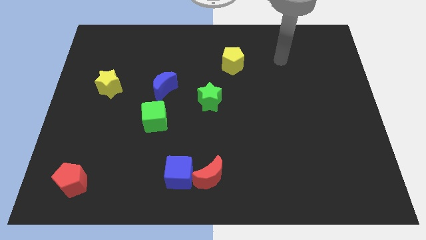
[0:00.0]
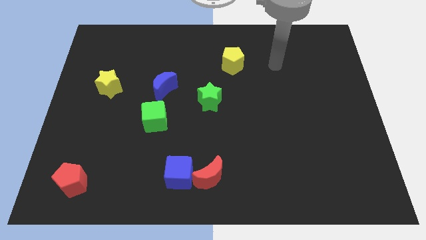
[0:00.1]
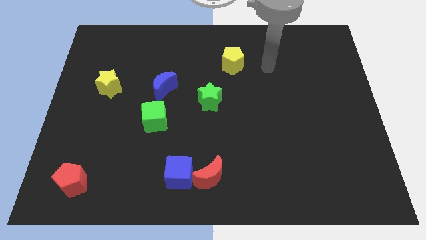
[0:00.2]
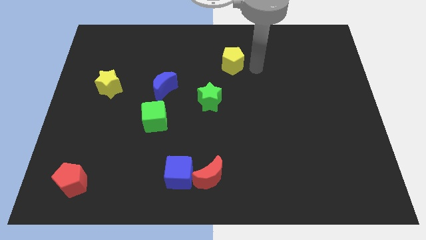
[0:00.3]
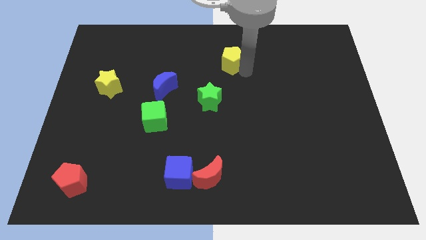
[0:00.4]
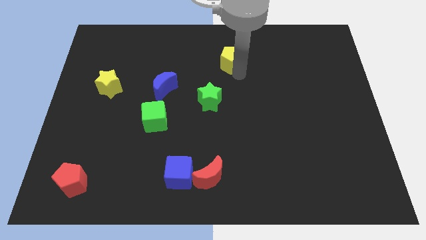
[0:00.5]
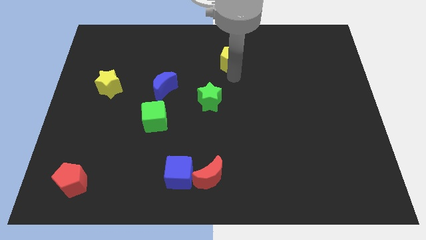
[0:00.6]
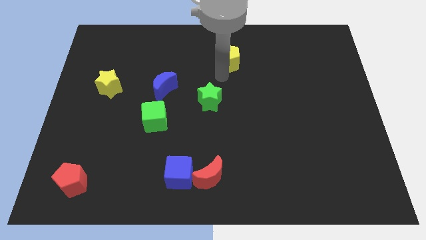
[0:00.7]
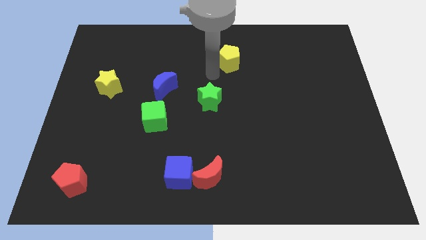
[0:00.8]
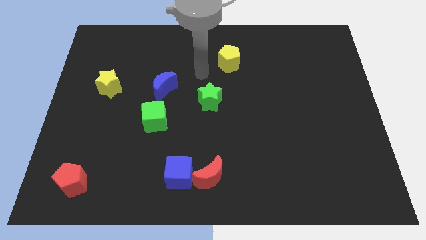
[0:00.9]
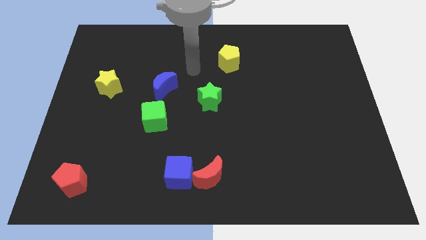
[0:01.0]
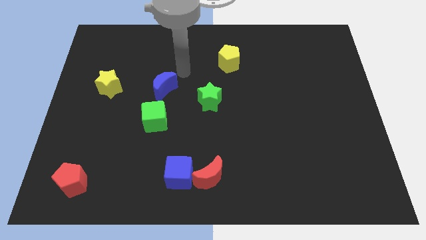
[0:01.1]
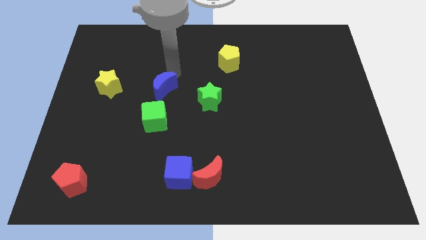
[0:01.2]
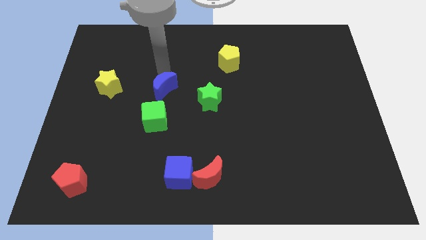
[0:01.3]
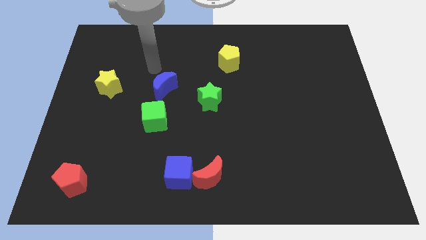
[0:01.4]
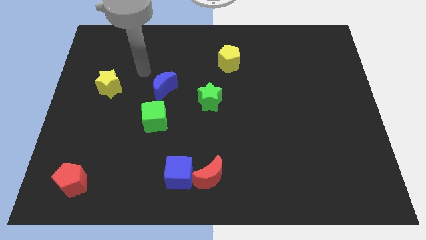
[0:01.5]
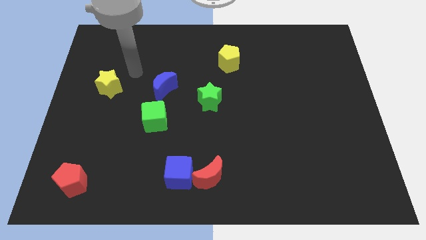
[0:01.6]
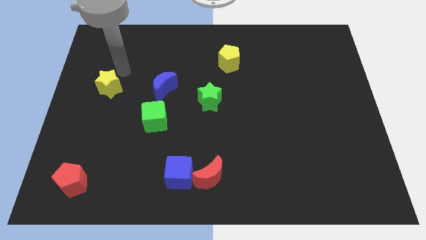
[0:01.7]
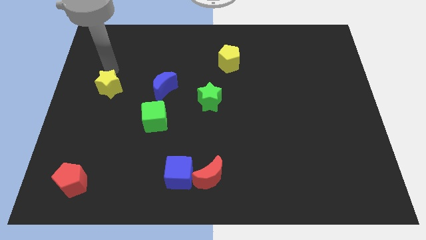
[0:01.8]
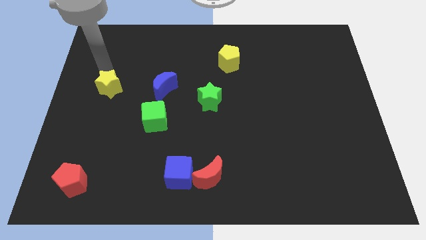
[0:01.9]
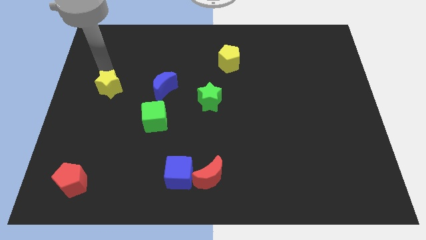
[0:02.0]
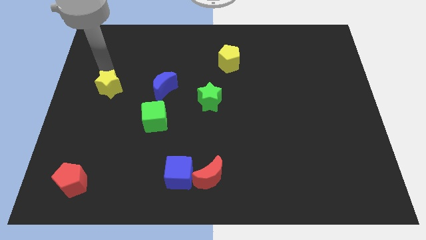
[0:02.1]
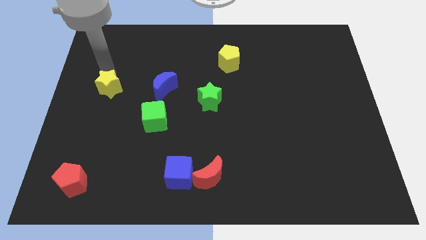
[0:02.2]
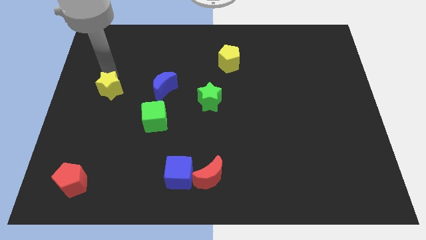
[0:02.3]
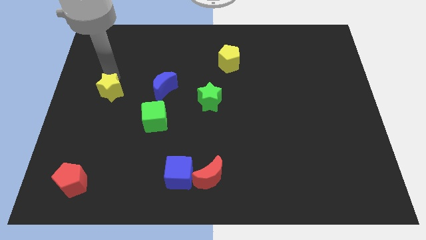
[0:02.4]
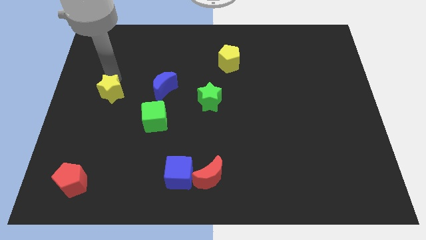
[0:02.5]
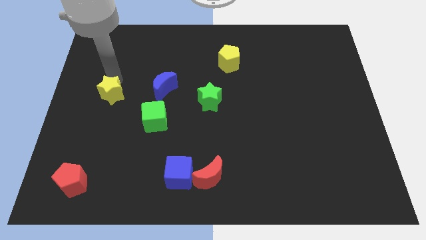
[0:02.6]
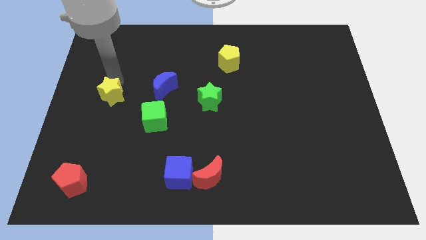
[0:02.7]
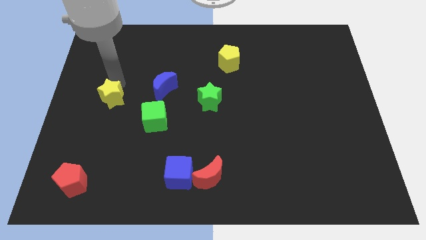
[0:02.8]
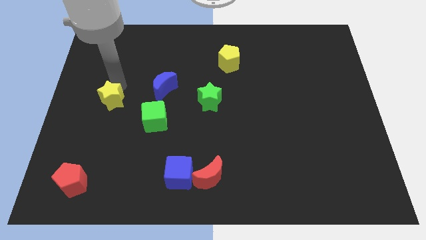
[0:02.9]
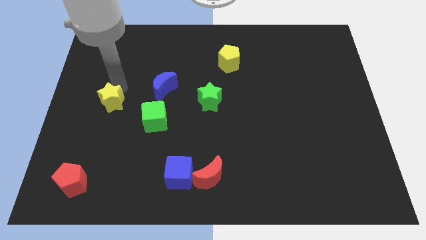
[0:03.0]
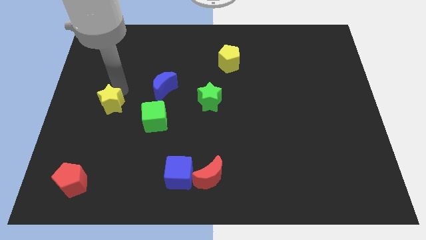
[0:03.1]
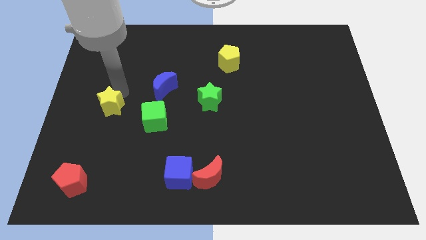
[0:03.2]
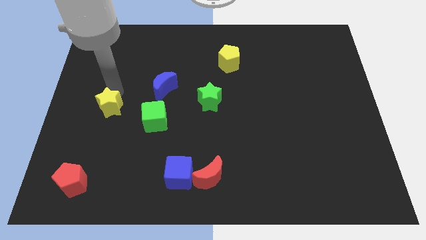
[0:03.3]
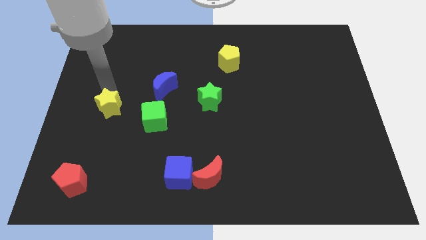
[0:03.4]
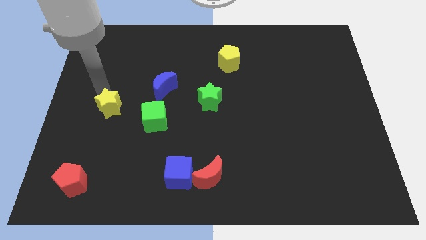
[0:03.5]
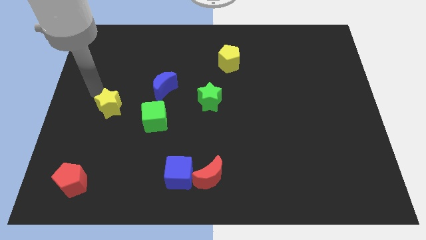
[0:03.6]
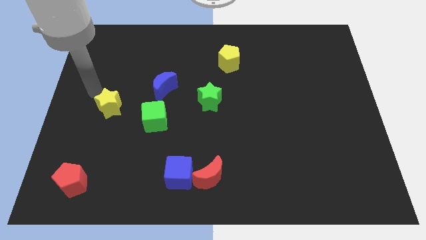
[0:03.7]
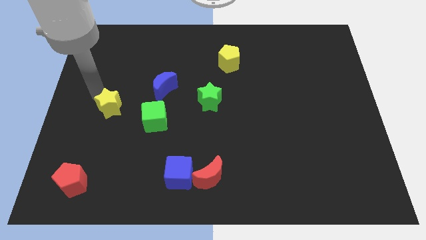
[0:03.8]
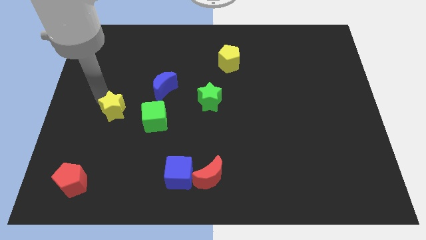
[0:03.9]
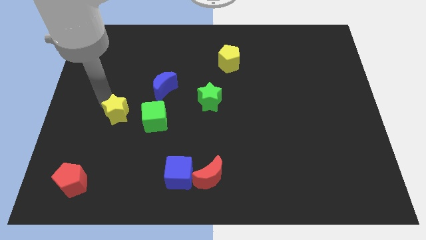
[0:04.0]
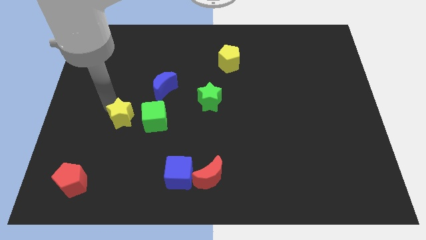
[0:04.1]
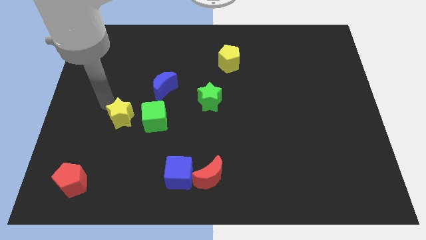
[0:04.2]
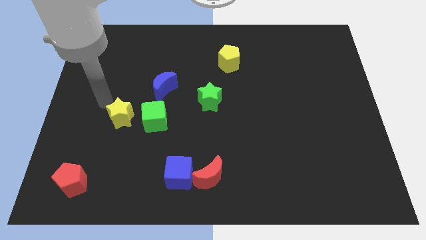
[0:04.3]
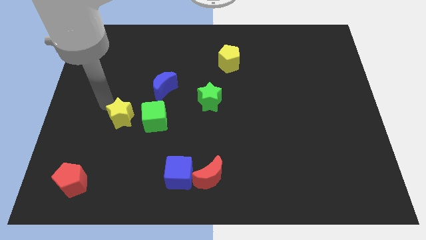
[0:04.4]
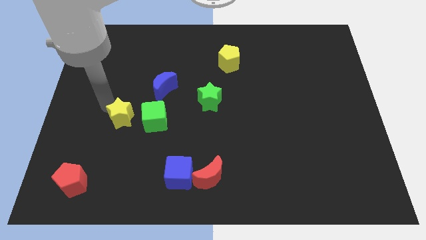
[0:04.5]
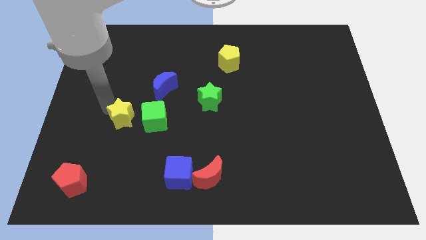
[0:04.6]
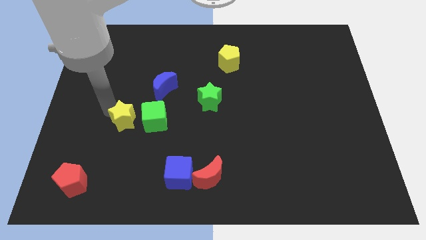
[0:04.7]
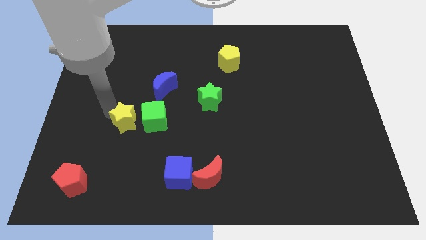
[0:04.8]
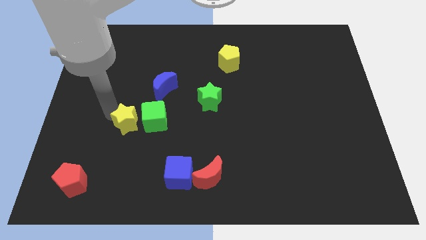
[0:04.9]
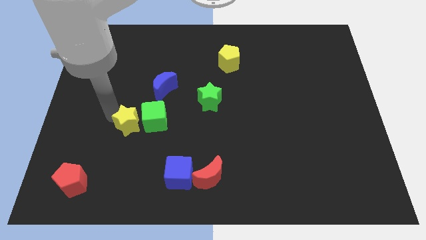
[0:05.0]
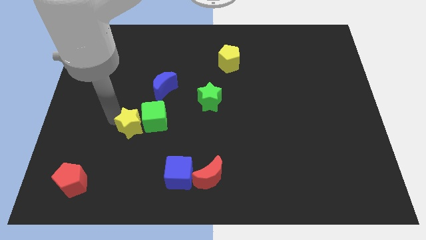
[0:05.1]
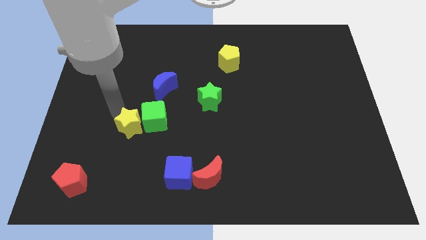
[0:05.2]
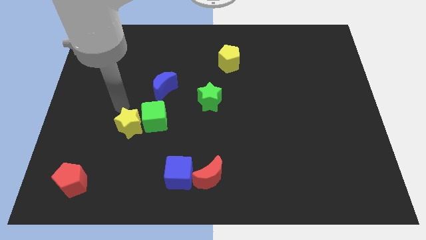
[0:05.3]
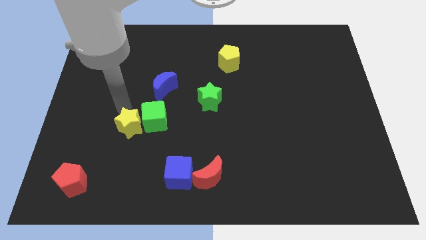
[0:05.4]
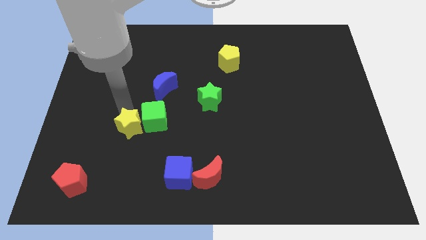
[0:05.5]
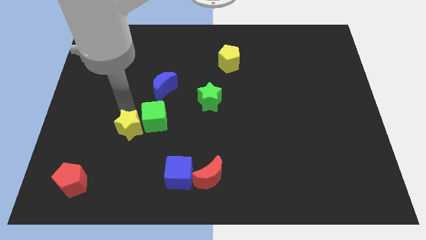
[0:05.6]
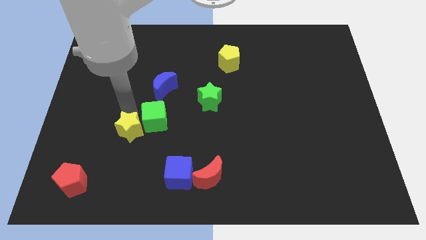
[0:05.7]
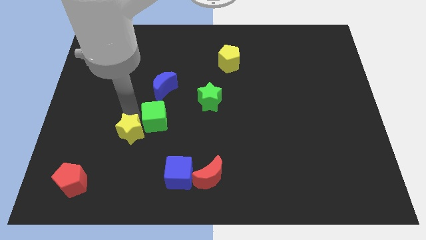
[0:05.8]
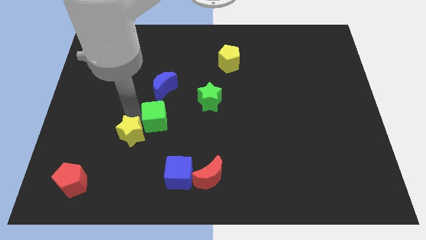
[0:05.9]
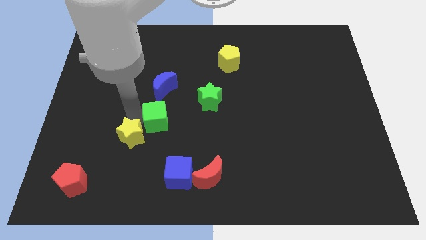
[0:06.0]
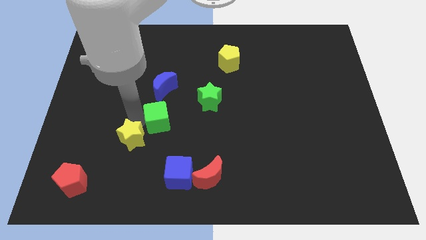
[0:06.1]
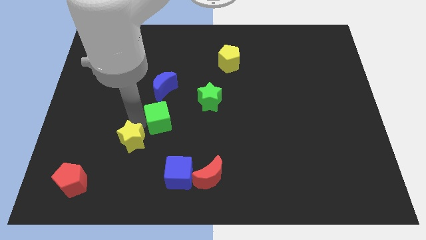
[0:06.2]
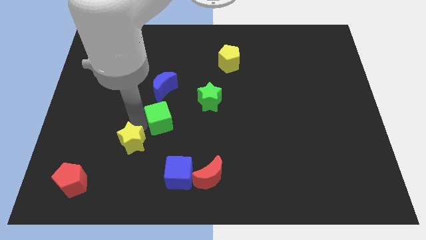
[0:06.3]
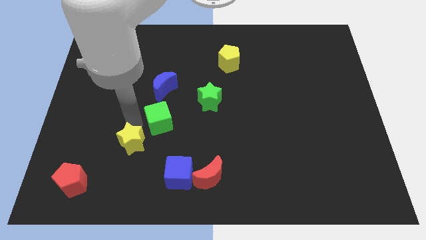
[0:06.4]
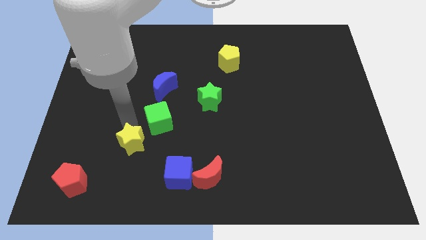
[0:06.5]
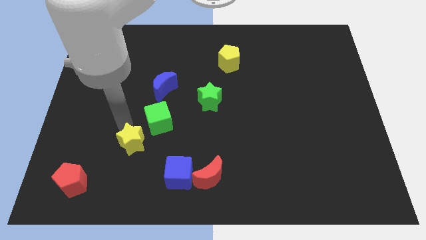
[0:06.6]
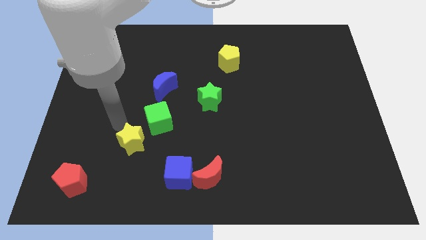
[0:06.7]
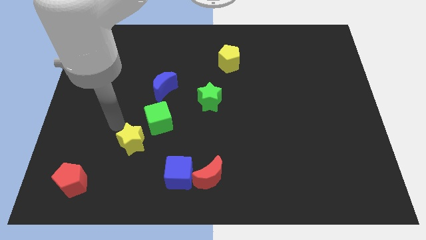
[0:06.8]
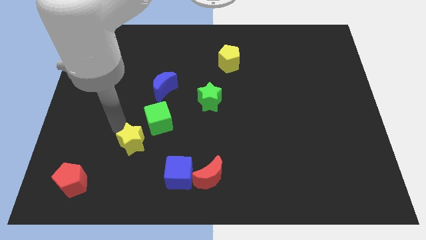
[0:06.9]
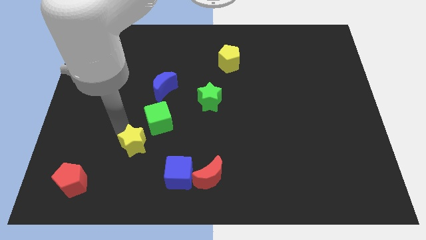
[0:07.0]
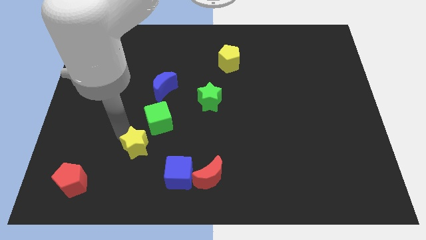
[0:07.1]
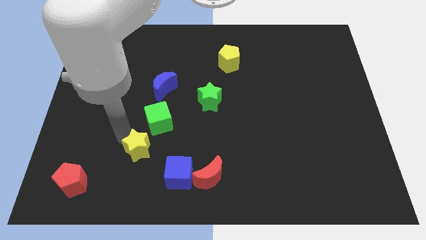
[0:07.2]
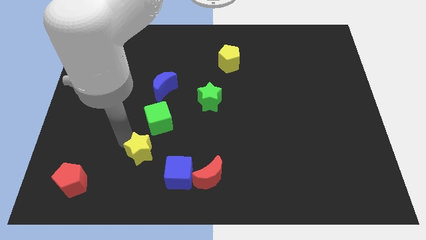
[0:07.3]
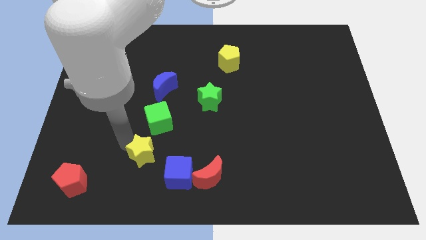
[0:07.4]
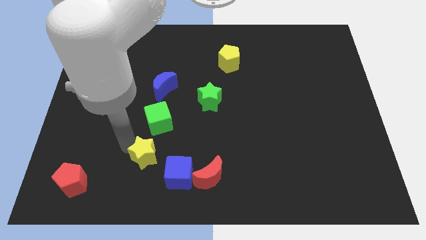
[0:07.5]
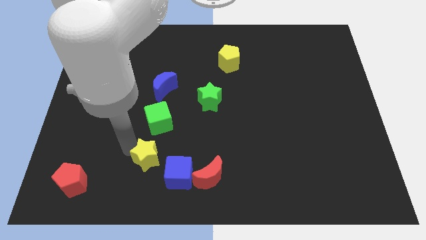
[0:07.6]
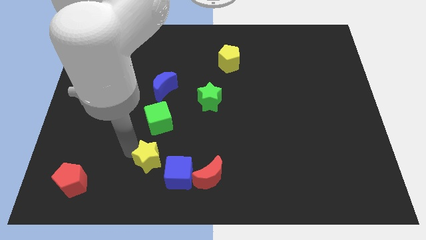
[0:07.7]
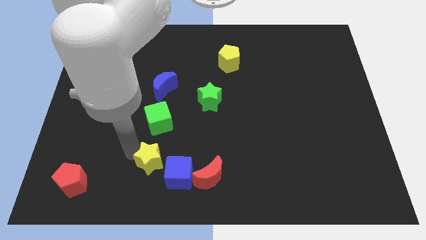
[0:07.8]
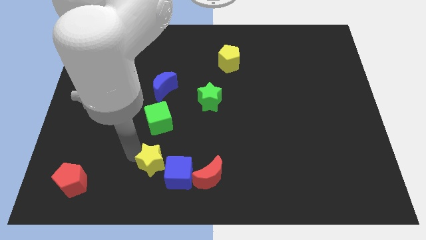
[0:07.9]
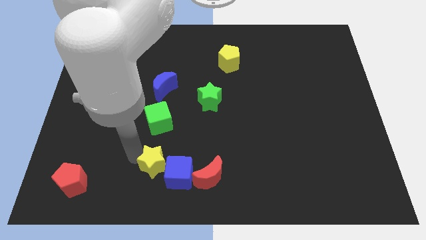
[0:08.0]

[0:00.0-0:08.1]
push the yellow star next to the blue cube
